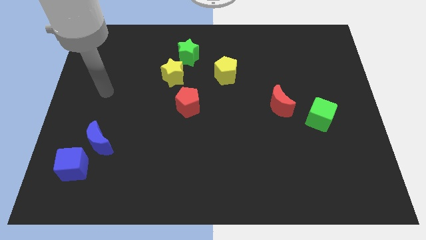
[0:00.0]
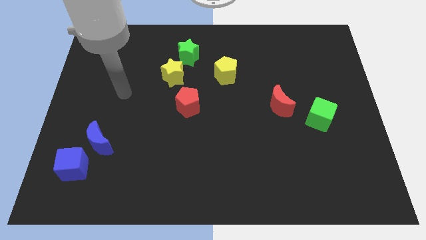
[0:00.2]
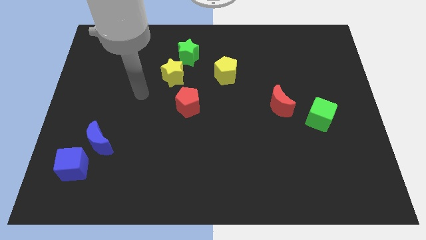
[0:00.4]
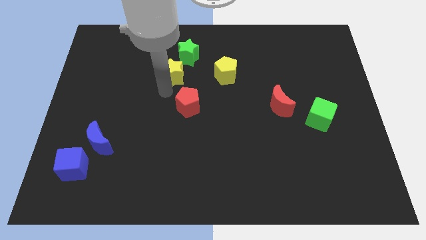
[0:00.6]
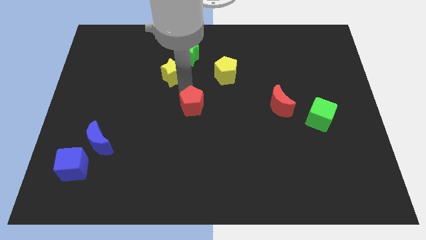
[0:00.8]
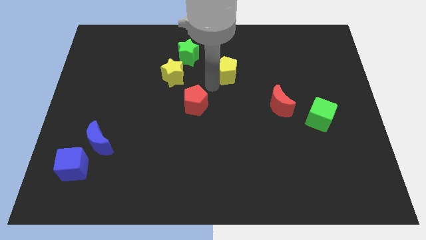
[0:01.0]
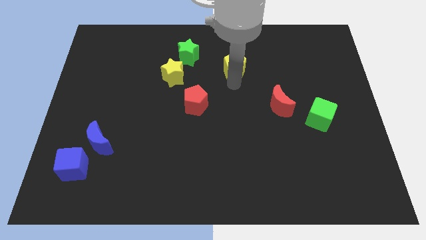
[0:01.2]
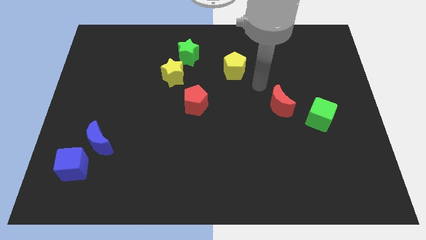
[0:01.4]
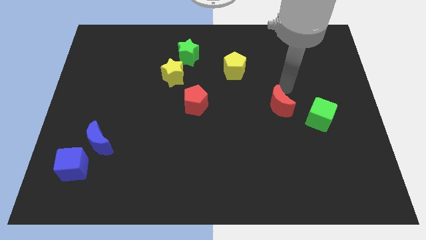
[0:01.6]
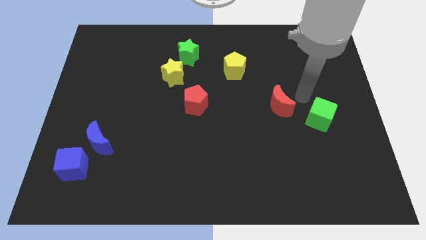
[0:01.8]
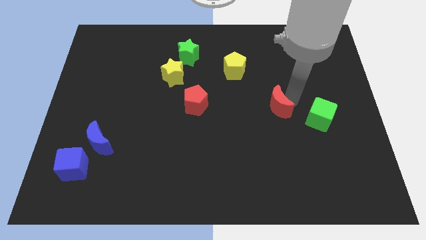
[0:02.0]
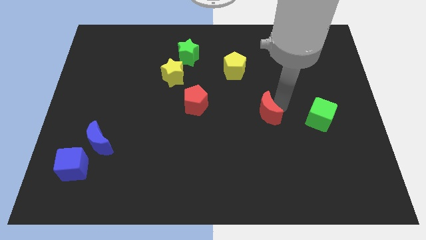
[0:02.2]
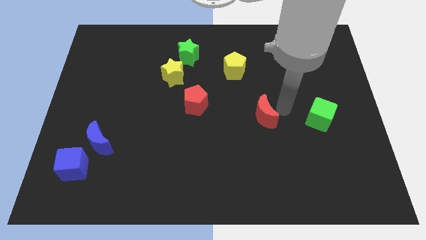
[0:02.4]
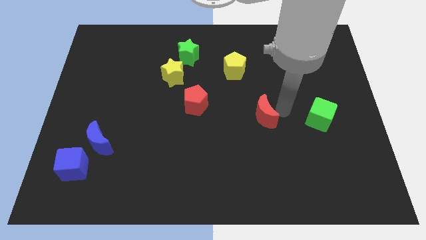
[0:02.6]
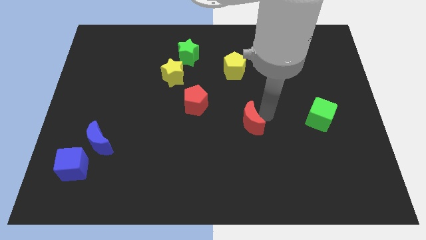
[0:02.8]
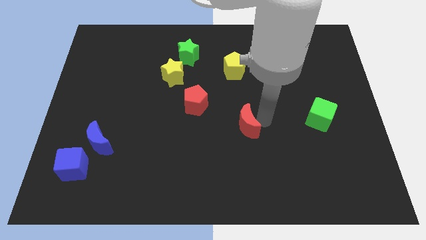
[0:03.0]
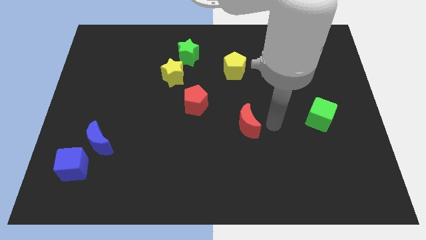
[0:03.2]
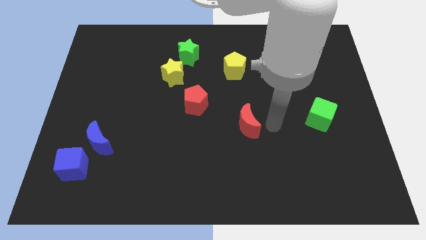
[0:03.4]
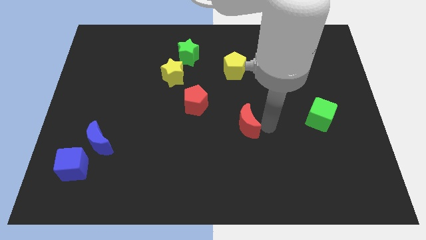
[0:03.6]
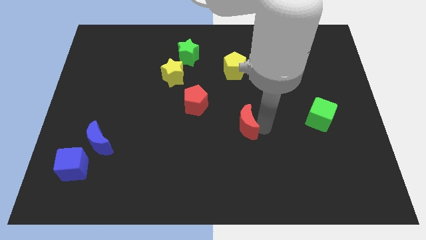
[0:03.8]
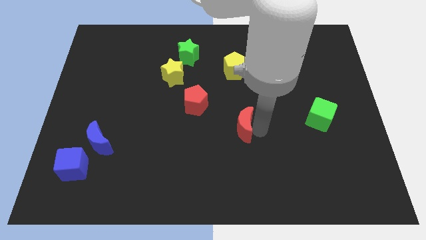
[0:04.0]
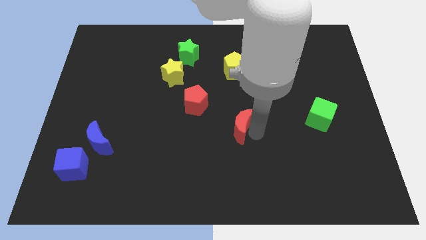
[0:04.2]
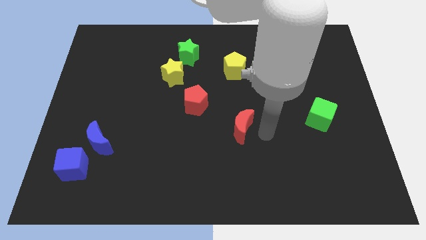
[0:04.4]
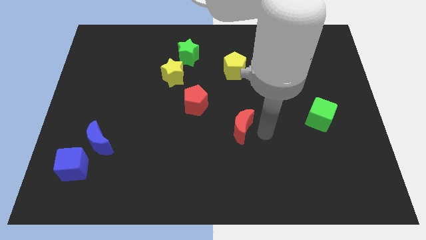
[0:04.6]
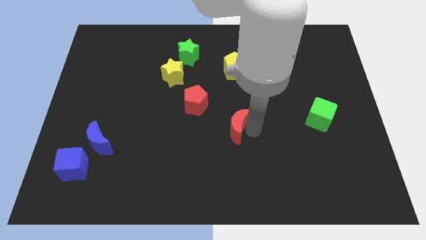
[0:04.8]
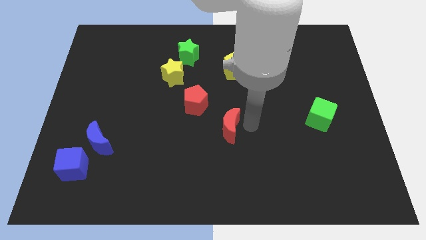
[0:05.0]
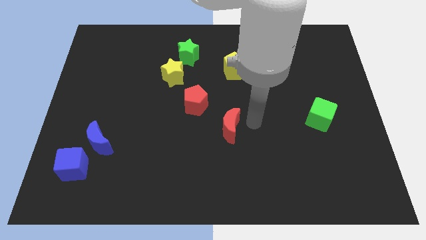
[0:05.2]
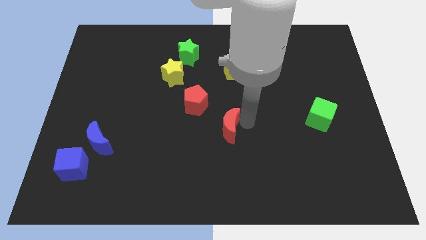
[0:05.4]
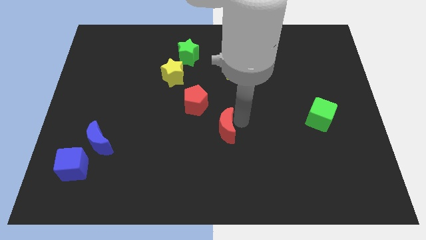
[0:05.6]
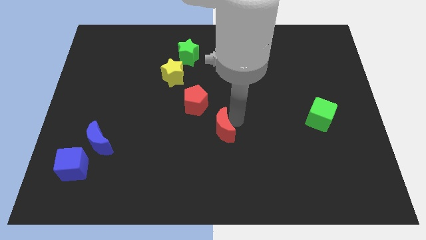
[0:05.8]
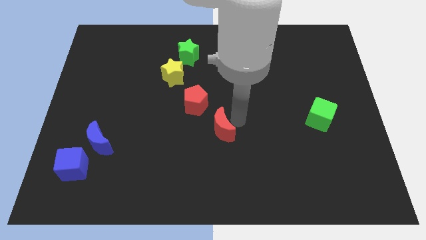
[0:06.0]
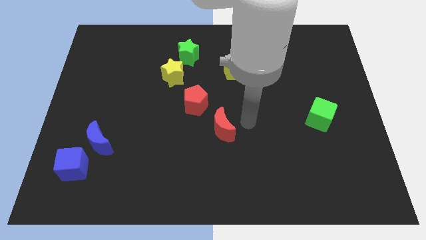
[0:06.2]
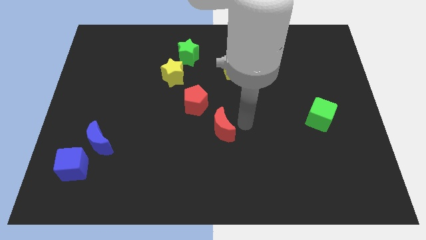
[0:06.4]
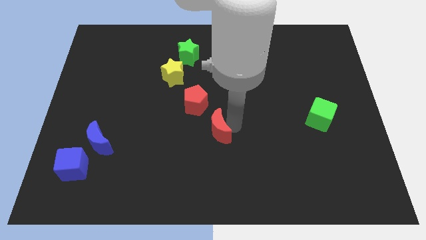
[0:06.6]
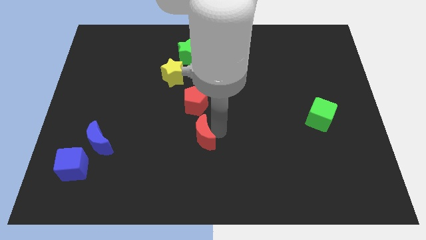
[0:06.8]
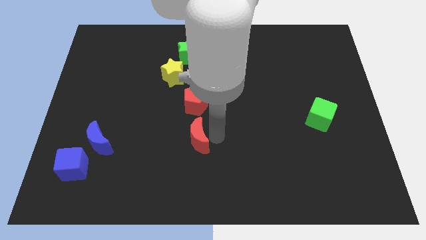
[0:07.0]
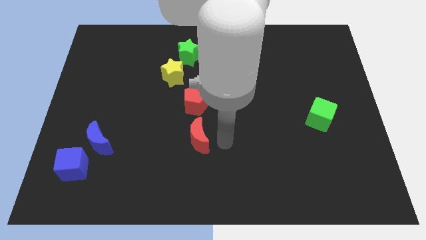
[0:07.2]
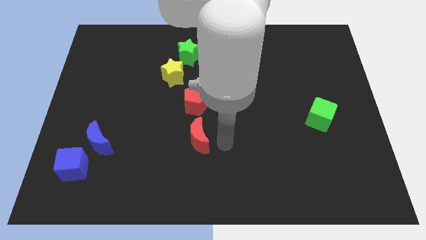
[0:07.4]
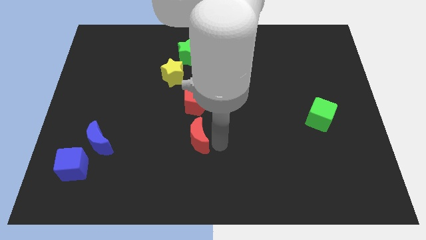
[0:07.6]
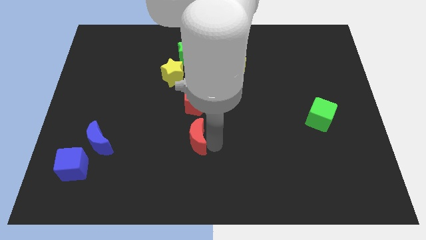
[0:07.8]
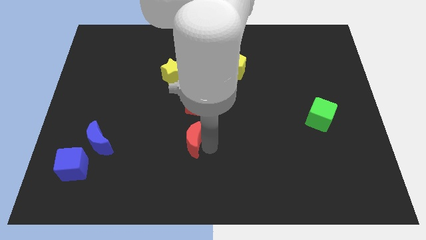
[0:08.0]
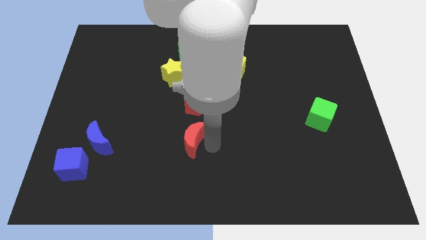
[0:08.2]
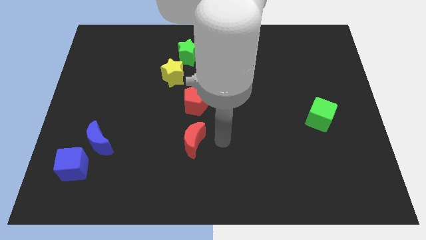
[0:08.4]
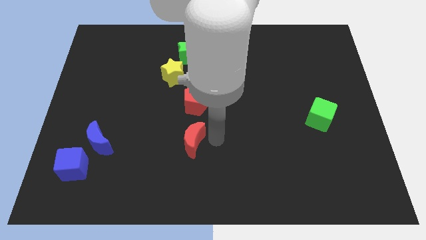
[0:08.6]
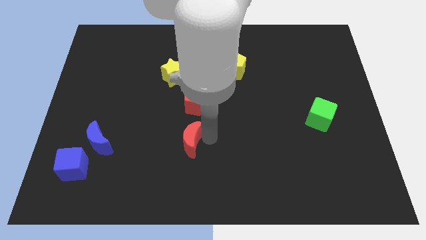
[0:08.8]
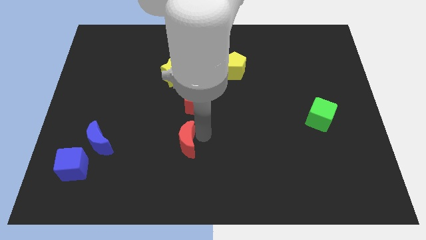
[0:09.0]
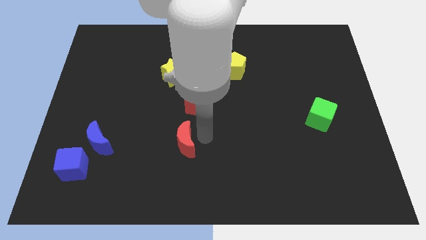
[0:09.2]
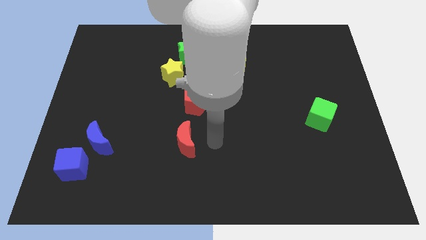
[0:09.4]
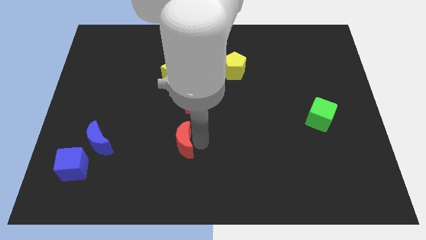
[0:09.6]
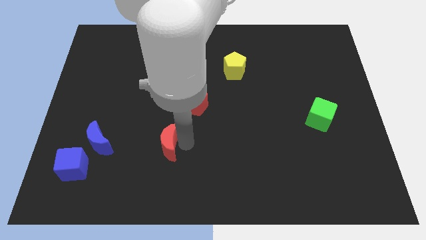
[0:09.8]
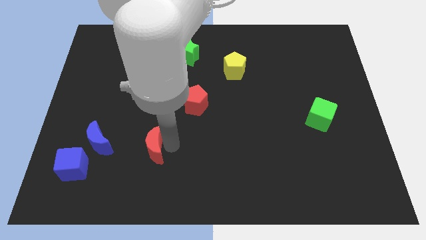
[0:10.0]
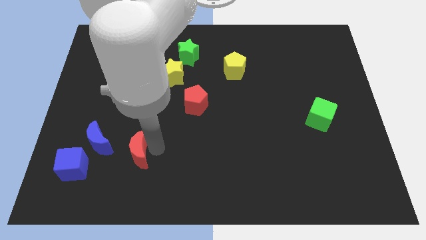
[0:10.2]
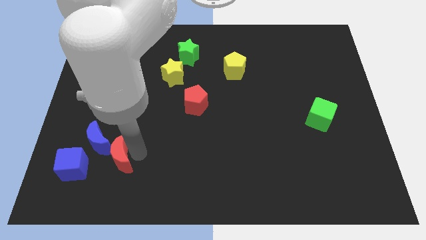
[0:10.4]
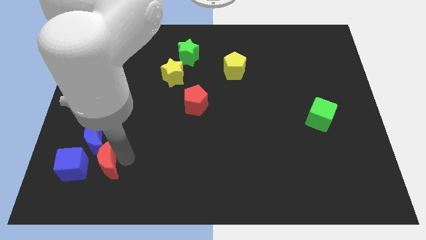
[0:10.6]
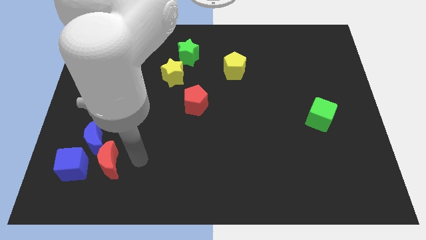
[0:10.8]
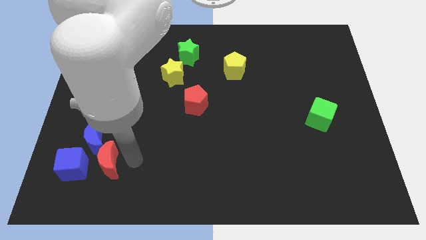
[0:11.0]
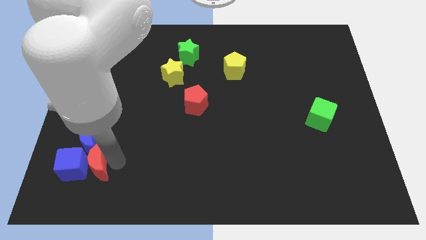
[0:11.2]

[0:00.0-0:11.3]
push the red moon to the blue cube

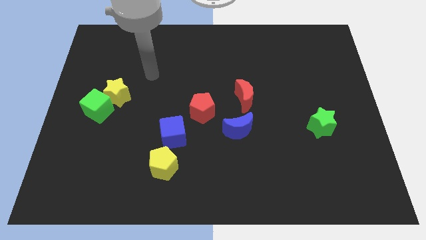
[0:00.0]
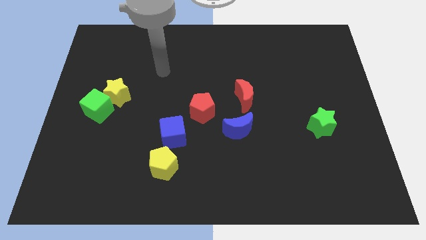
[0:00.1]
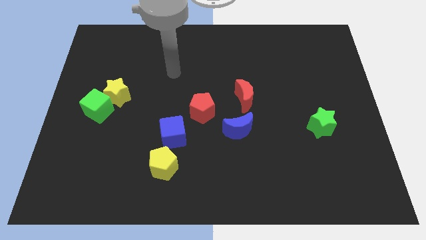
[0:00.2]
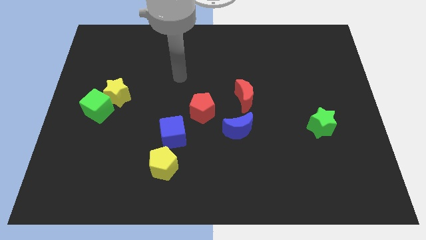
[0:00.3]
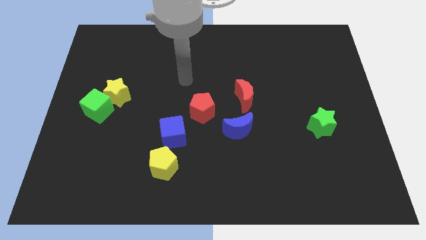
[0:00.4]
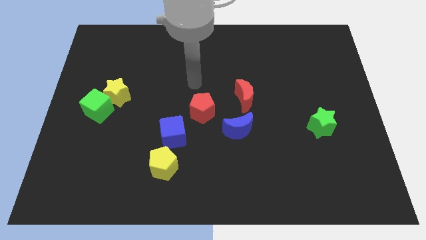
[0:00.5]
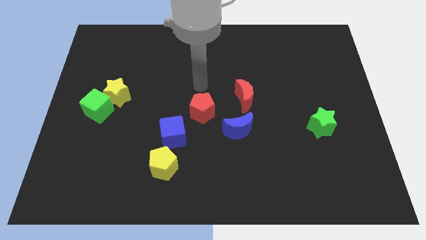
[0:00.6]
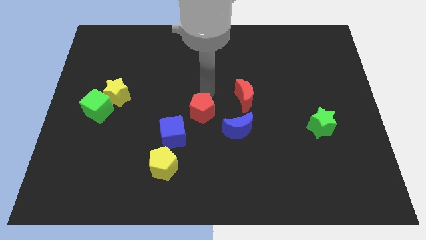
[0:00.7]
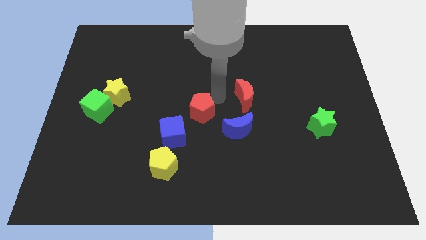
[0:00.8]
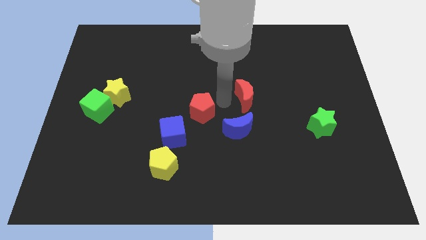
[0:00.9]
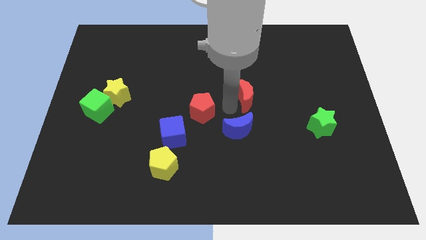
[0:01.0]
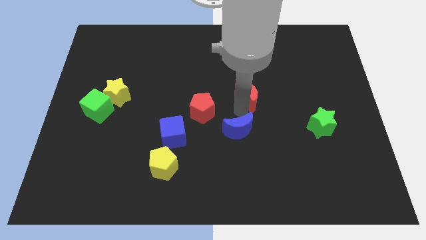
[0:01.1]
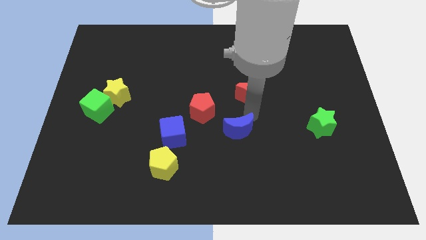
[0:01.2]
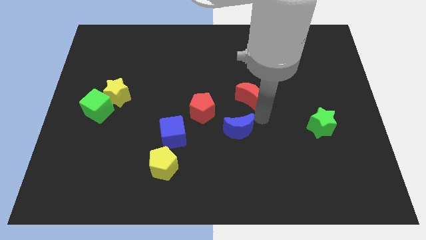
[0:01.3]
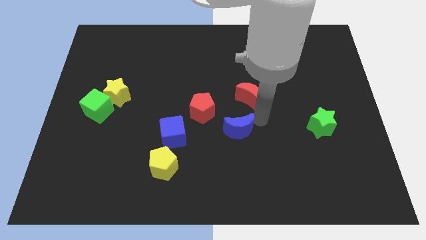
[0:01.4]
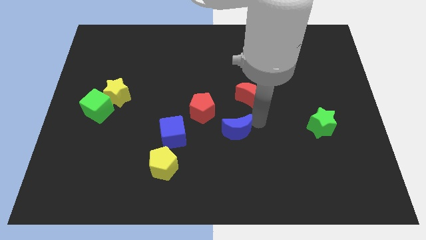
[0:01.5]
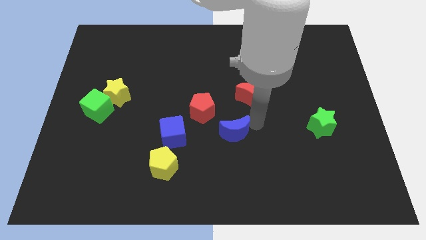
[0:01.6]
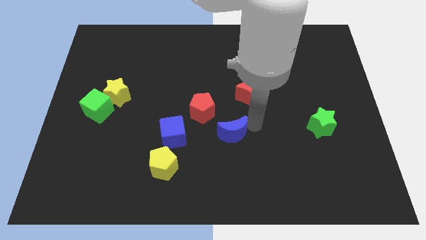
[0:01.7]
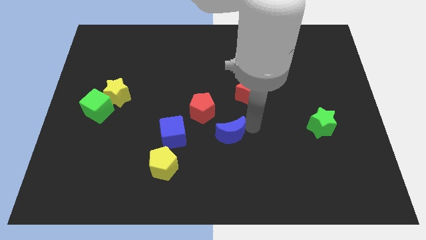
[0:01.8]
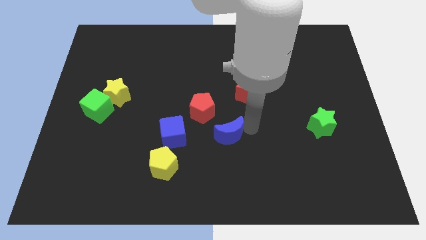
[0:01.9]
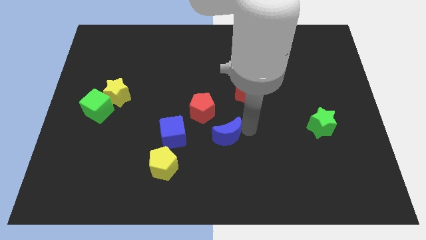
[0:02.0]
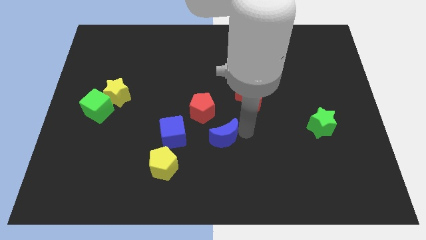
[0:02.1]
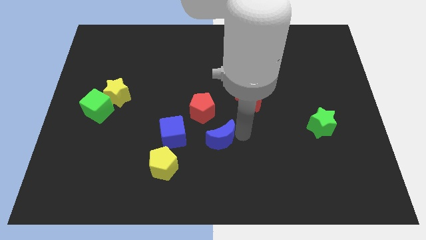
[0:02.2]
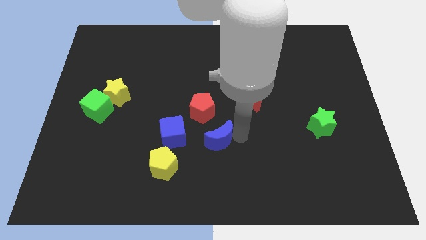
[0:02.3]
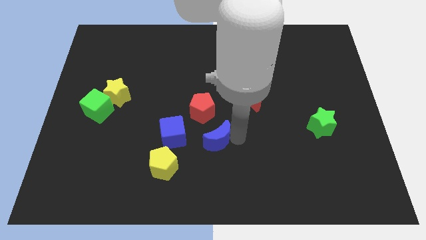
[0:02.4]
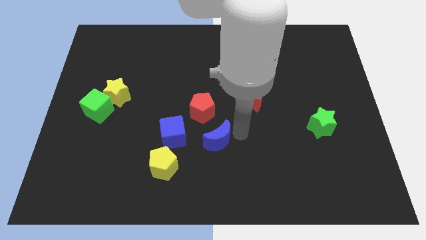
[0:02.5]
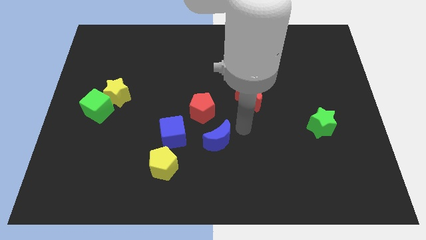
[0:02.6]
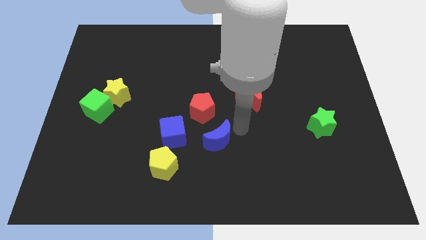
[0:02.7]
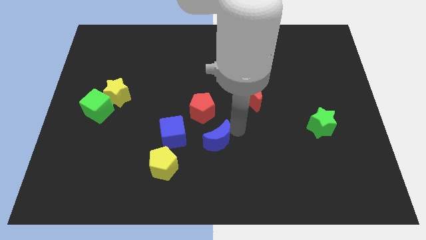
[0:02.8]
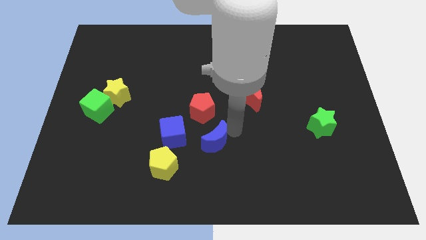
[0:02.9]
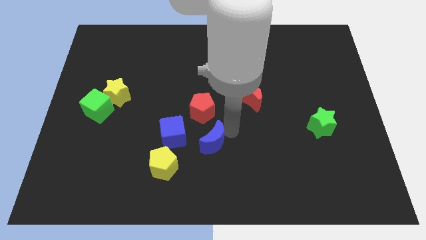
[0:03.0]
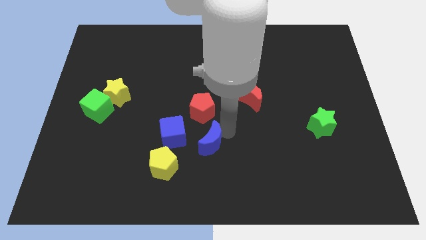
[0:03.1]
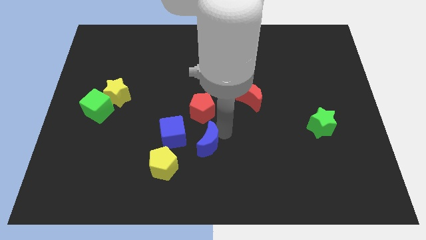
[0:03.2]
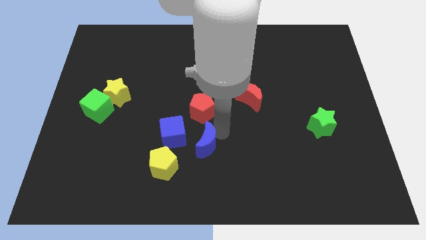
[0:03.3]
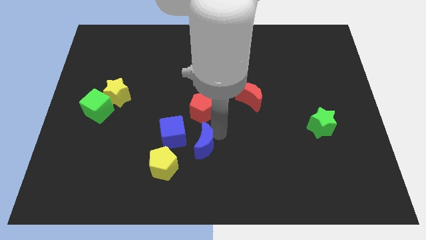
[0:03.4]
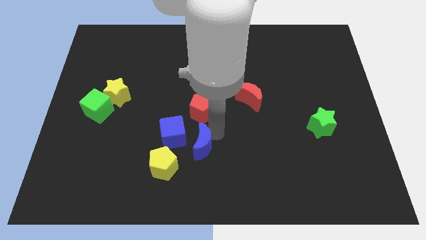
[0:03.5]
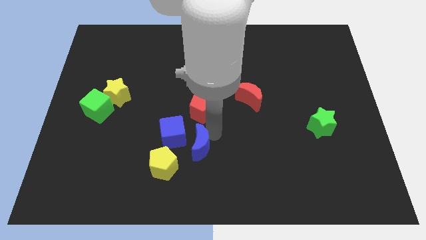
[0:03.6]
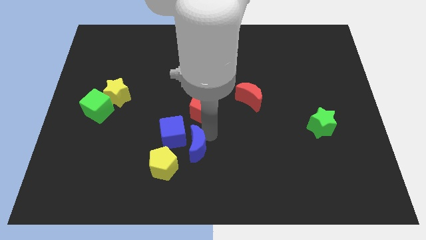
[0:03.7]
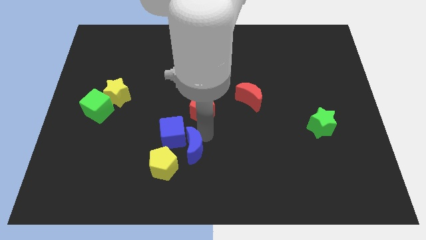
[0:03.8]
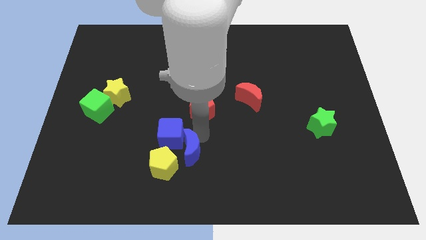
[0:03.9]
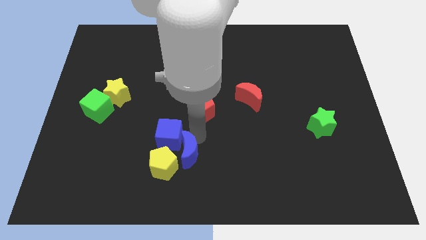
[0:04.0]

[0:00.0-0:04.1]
push the blue moon to the yellow pentagon
